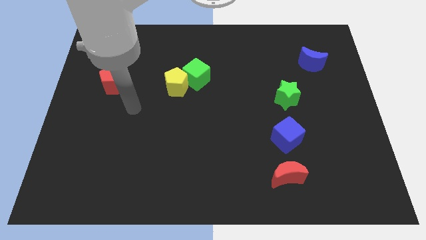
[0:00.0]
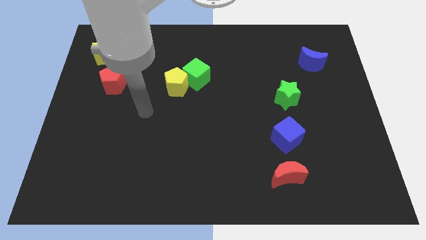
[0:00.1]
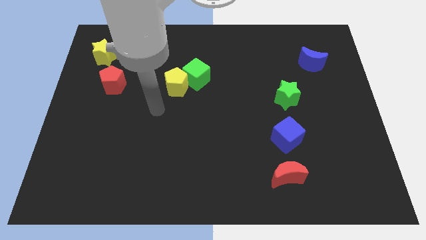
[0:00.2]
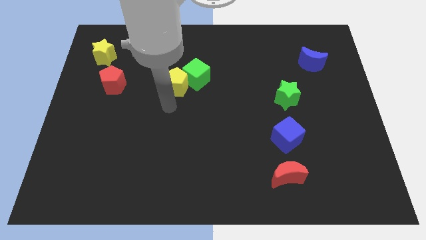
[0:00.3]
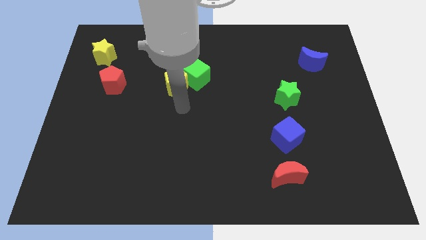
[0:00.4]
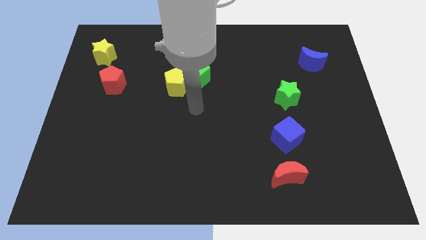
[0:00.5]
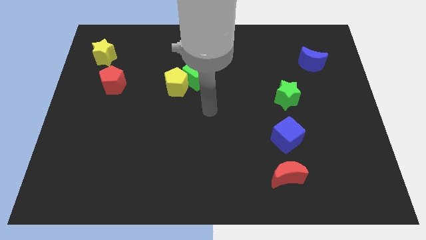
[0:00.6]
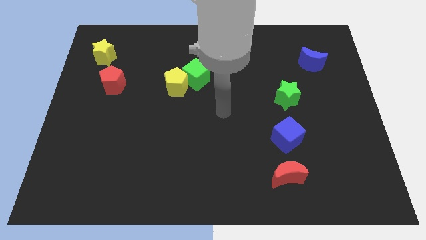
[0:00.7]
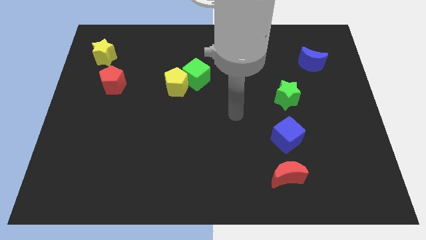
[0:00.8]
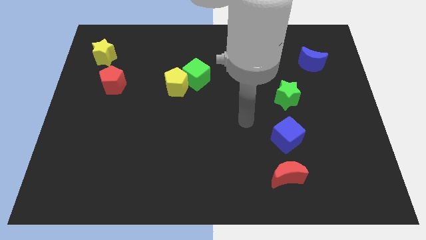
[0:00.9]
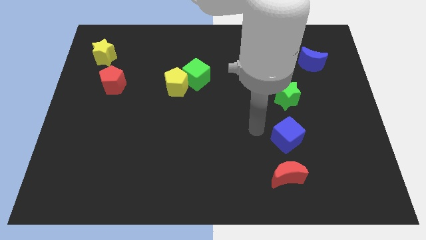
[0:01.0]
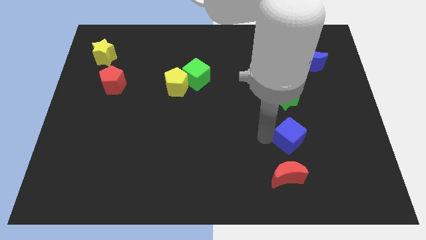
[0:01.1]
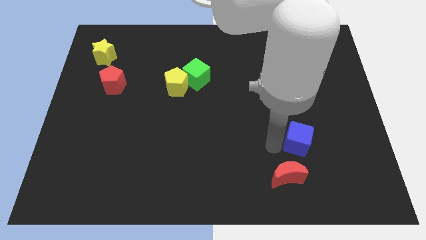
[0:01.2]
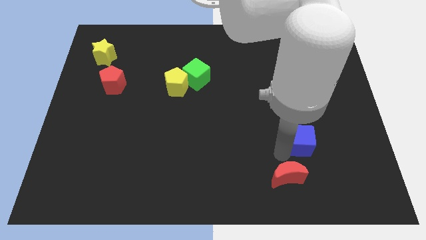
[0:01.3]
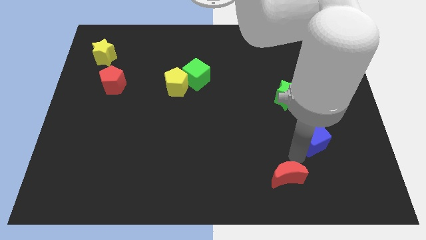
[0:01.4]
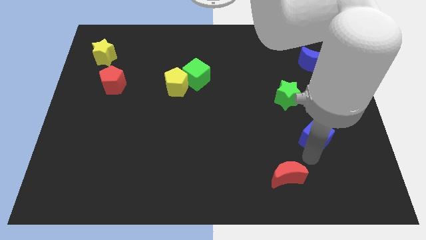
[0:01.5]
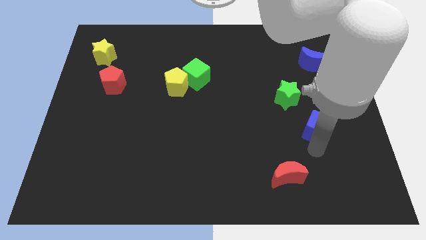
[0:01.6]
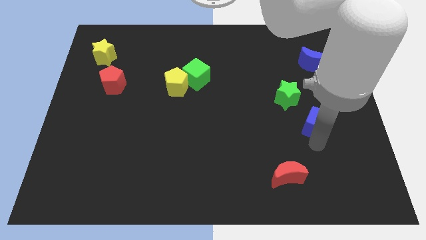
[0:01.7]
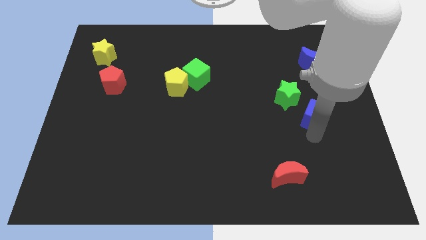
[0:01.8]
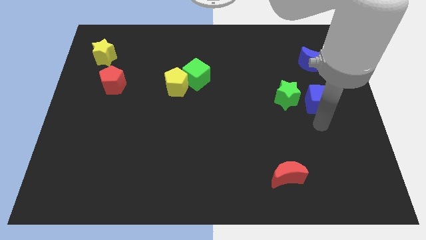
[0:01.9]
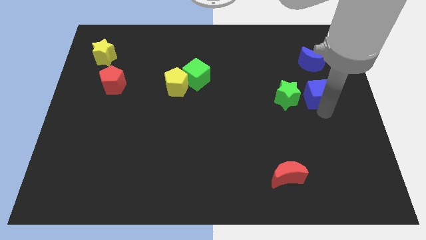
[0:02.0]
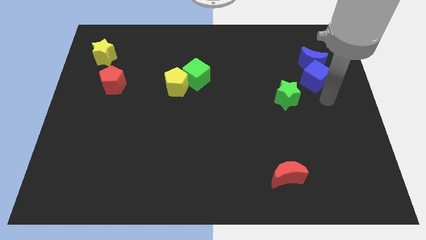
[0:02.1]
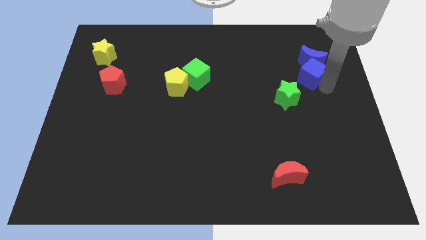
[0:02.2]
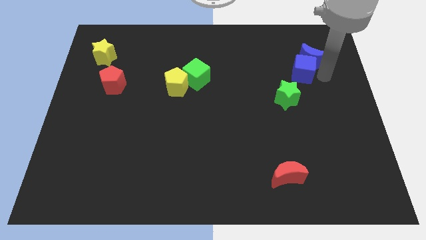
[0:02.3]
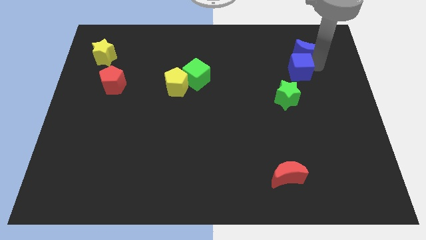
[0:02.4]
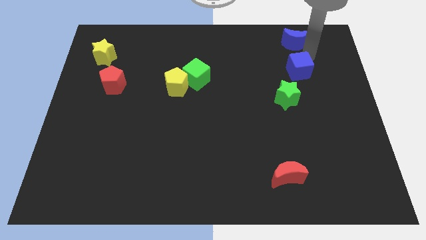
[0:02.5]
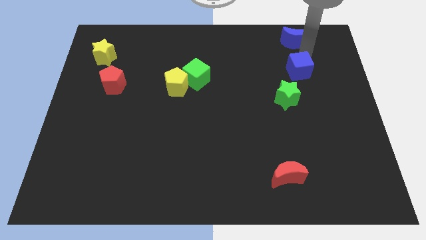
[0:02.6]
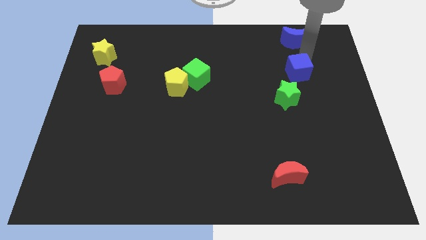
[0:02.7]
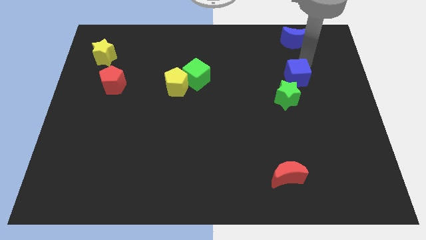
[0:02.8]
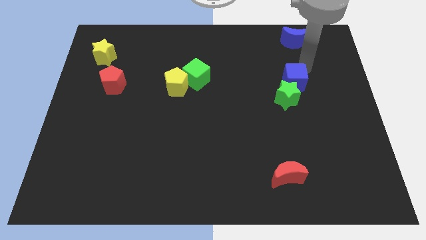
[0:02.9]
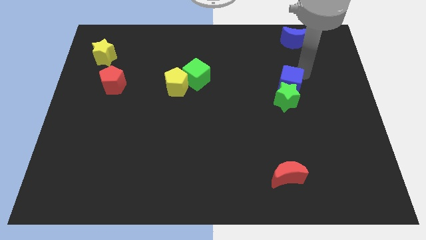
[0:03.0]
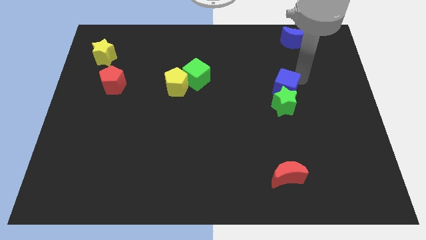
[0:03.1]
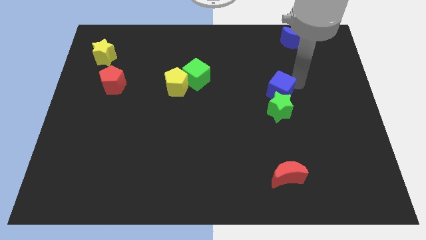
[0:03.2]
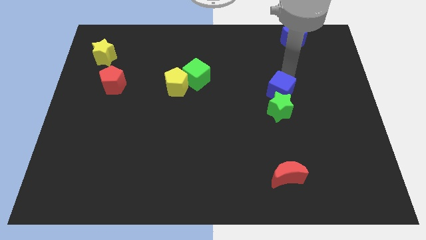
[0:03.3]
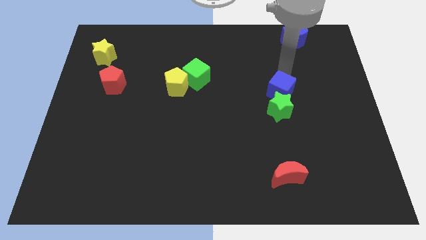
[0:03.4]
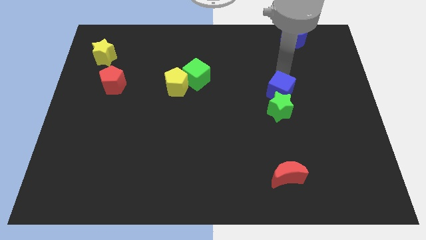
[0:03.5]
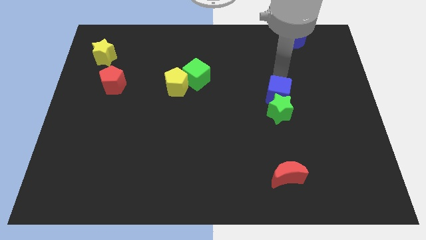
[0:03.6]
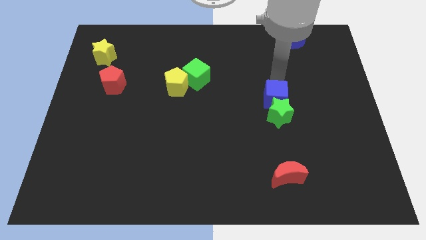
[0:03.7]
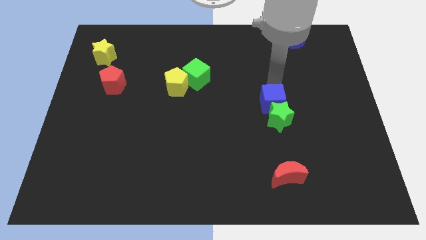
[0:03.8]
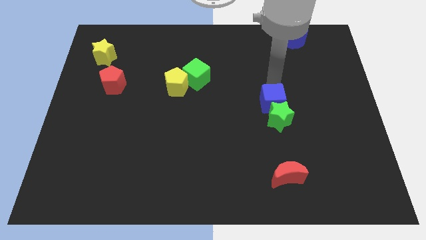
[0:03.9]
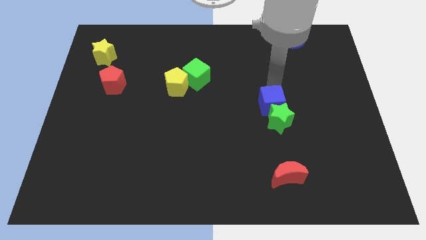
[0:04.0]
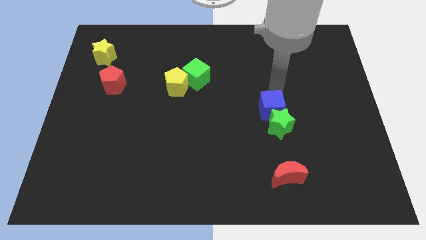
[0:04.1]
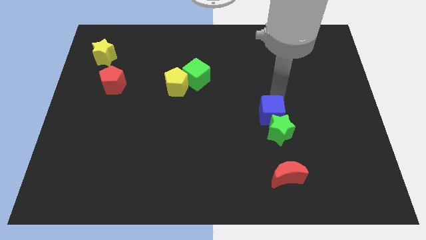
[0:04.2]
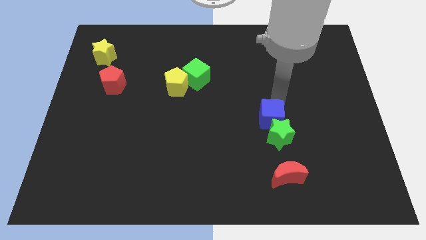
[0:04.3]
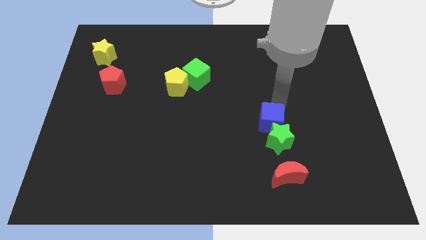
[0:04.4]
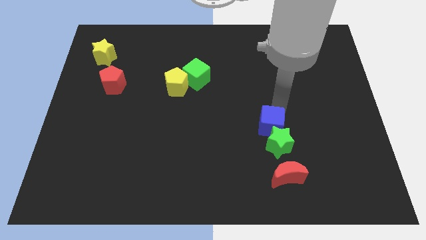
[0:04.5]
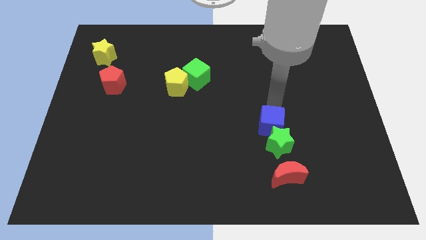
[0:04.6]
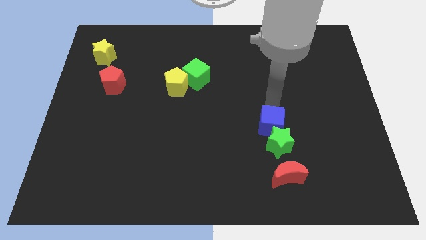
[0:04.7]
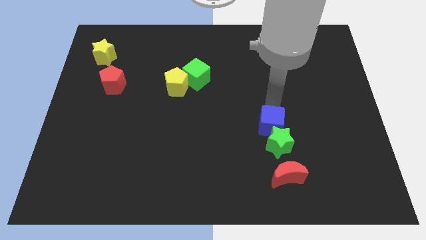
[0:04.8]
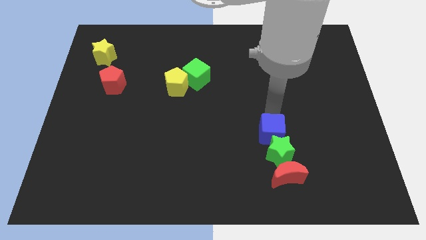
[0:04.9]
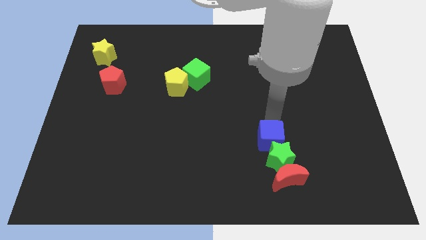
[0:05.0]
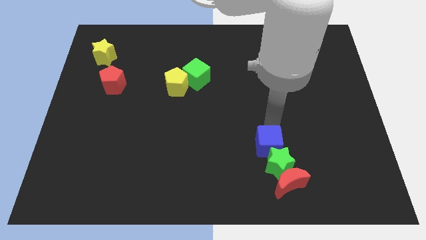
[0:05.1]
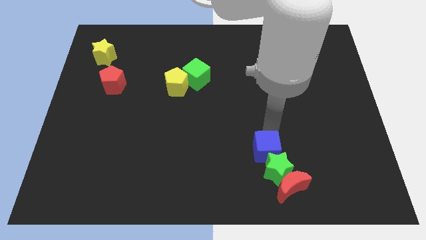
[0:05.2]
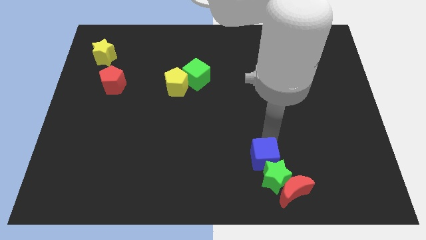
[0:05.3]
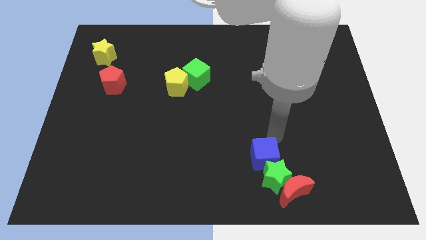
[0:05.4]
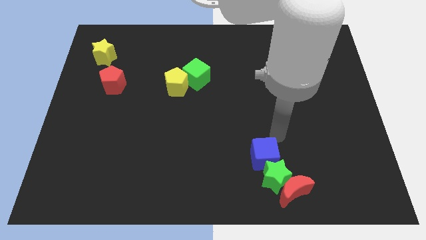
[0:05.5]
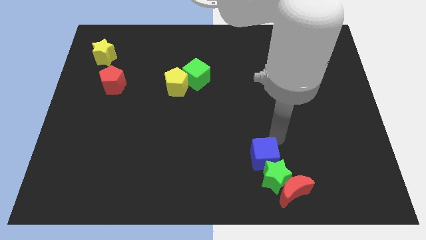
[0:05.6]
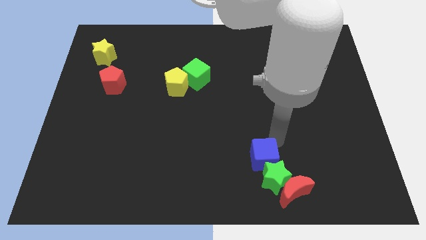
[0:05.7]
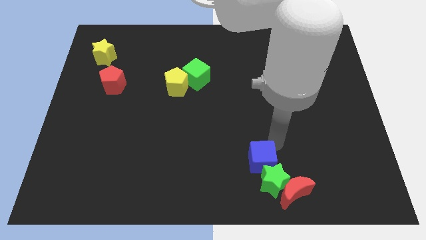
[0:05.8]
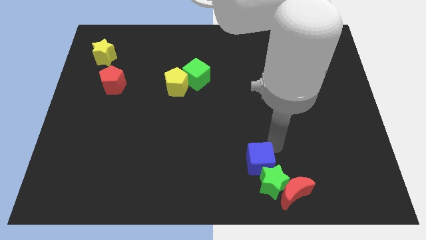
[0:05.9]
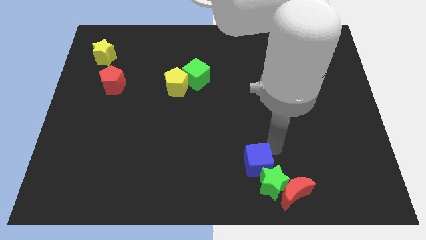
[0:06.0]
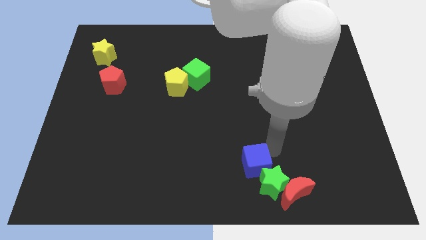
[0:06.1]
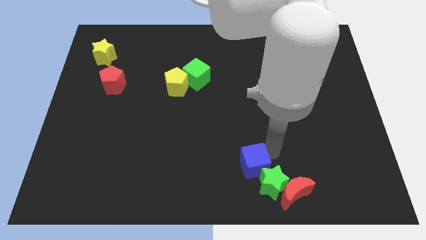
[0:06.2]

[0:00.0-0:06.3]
slide the blue cube to the bottom side

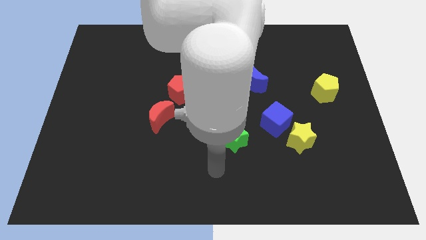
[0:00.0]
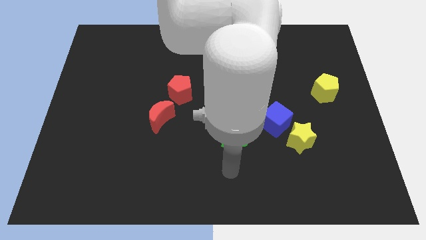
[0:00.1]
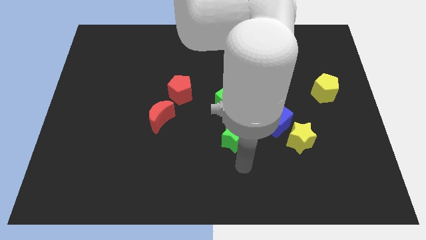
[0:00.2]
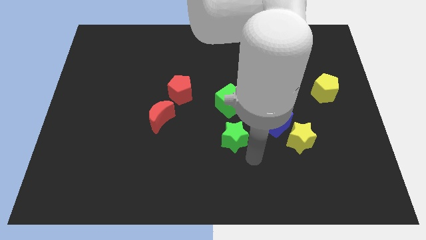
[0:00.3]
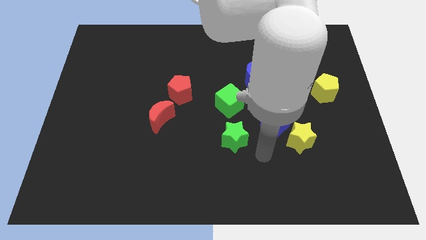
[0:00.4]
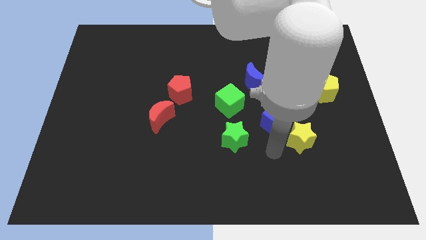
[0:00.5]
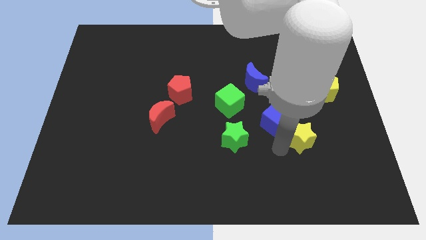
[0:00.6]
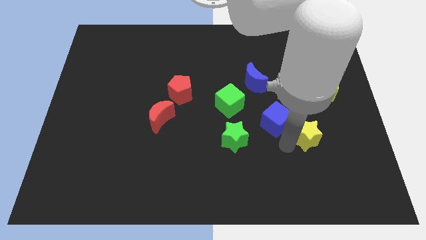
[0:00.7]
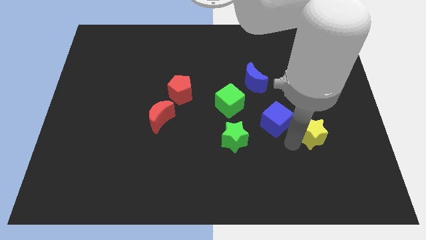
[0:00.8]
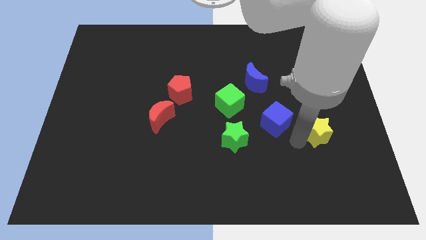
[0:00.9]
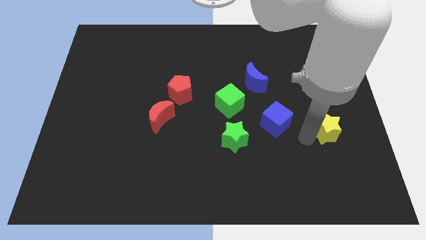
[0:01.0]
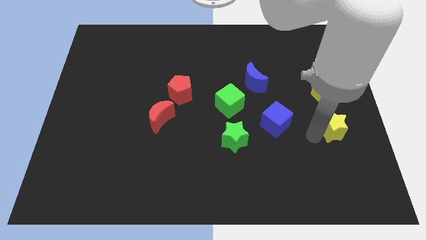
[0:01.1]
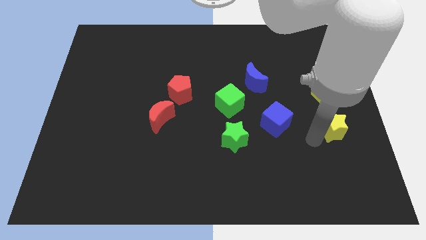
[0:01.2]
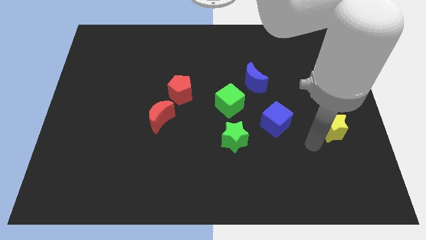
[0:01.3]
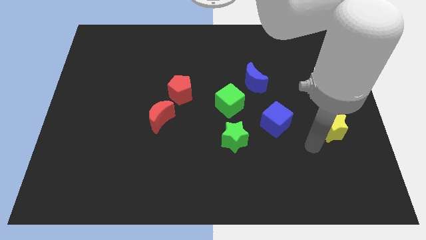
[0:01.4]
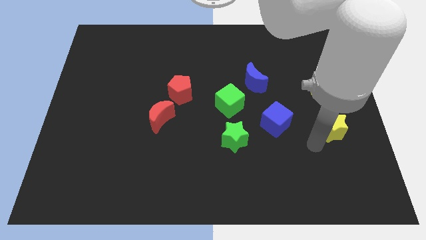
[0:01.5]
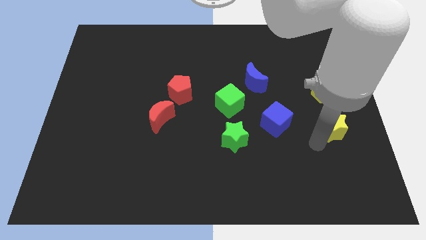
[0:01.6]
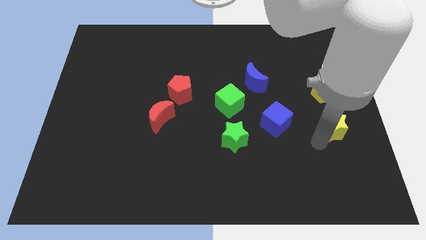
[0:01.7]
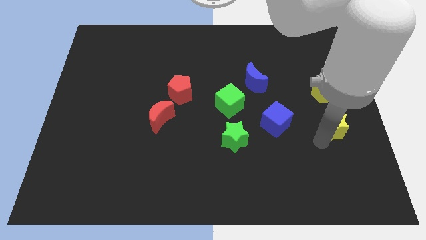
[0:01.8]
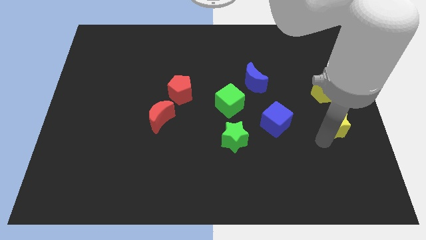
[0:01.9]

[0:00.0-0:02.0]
slide the yellow star to the center right
